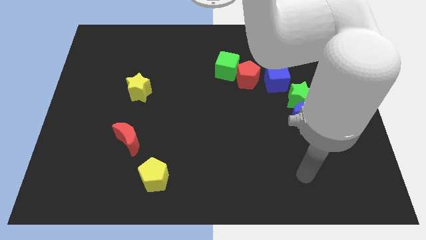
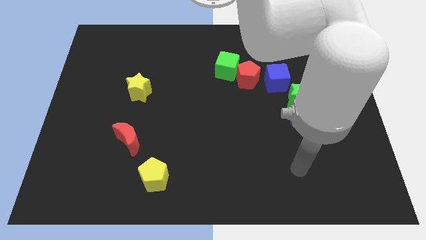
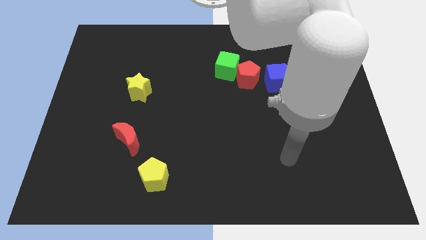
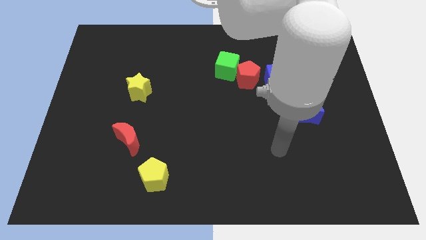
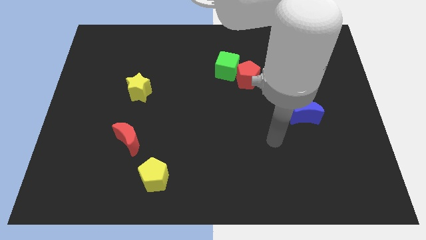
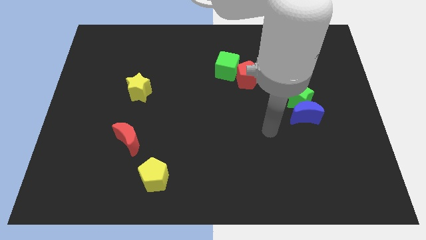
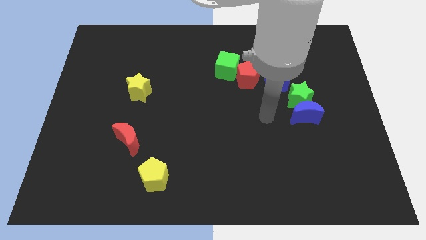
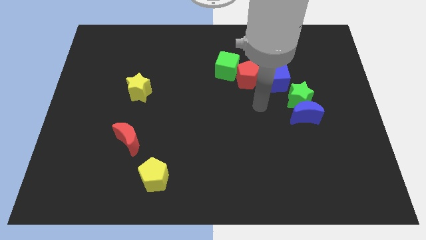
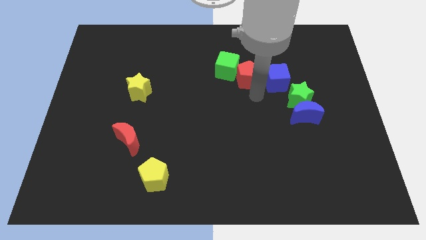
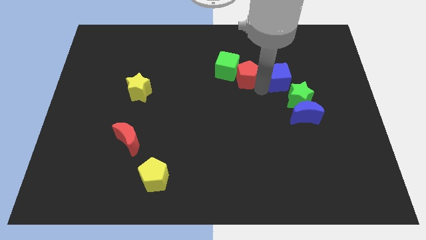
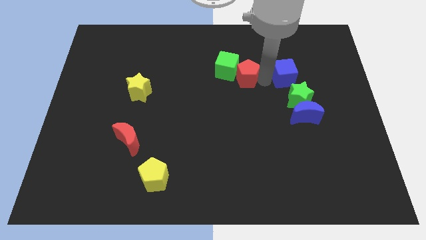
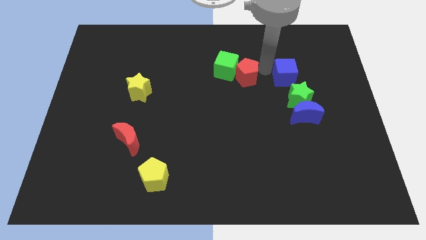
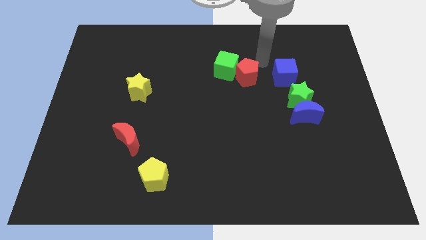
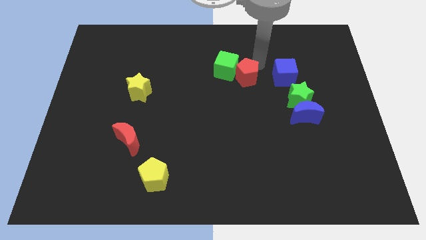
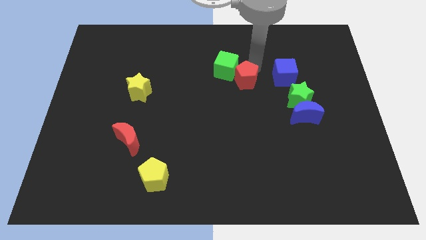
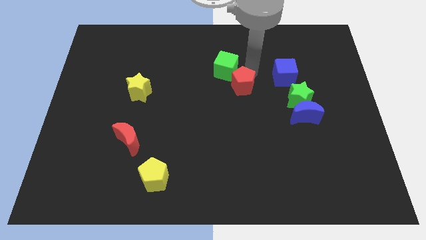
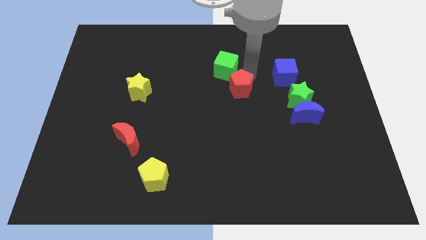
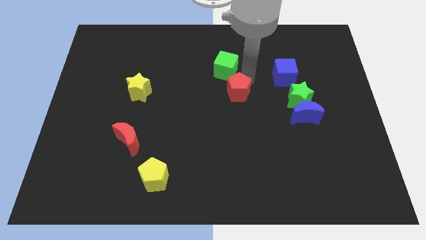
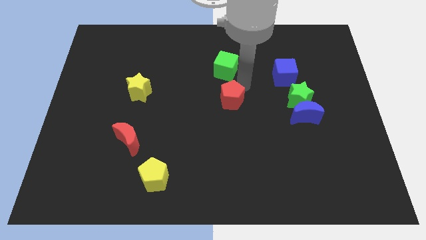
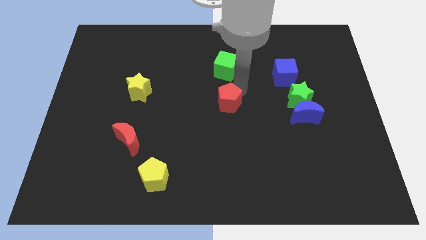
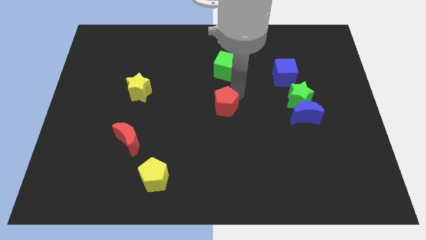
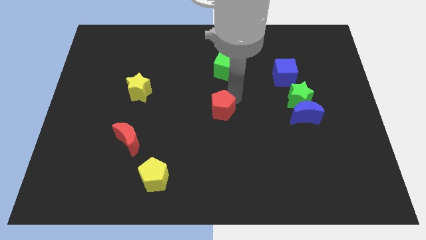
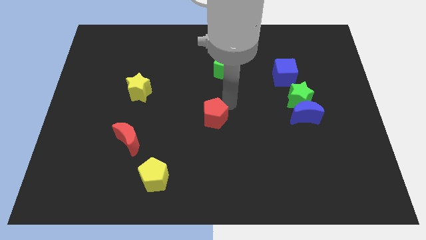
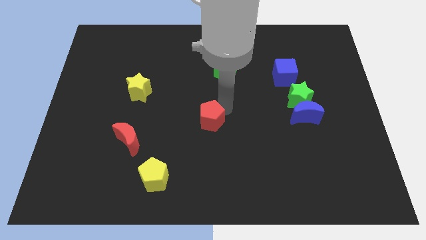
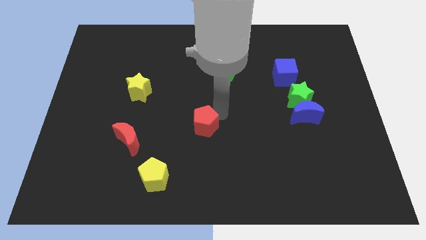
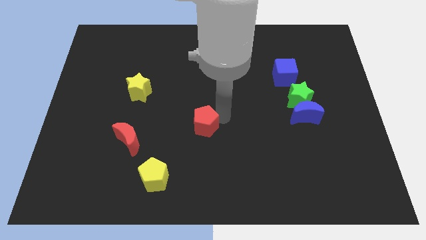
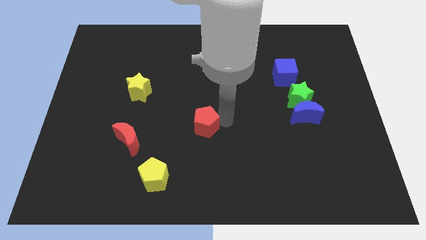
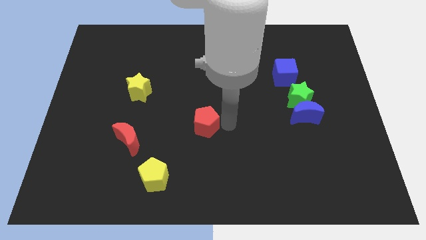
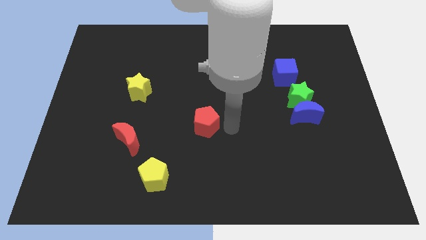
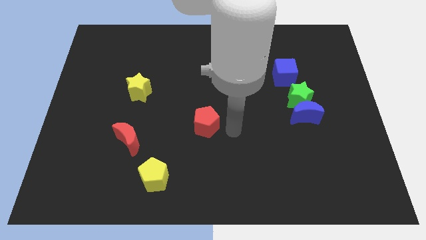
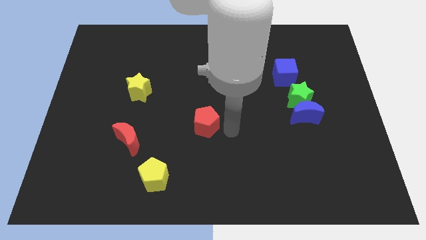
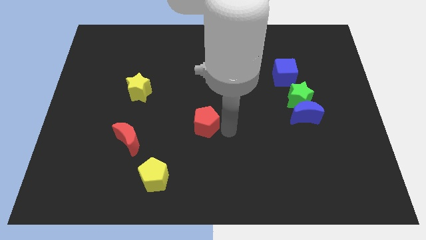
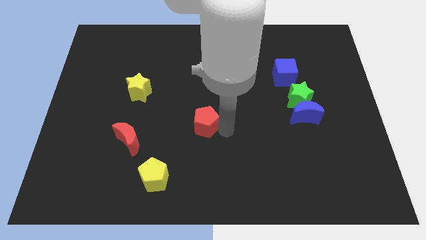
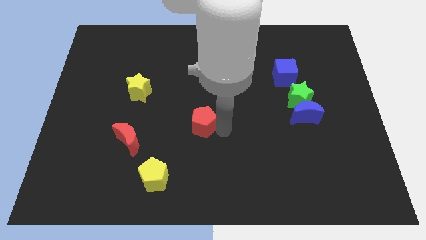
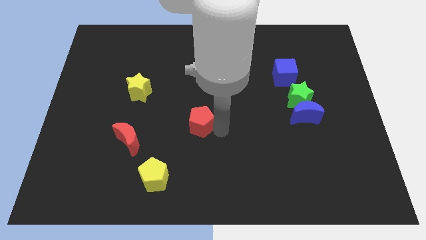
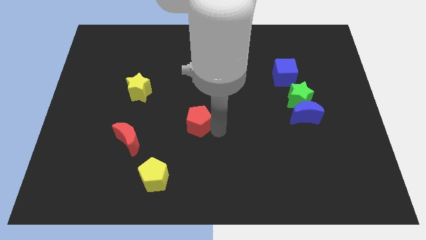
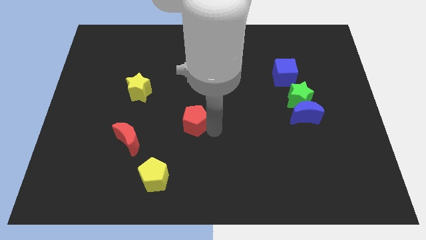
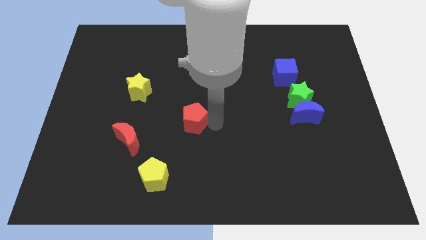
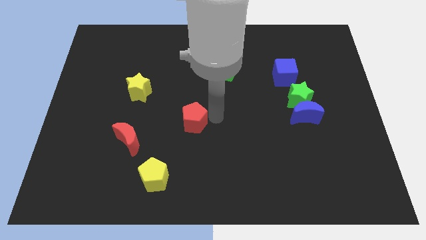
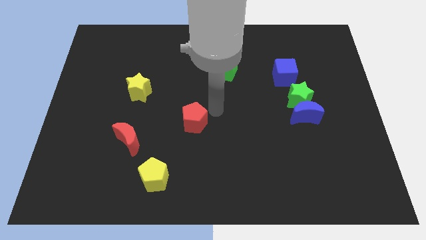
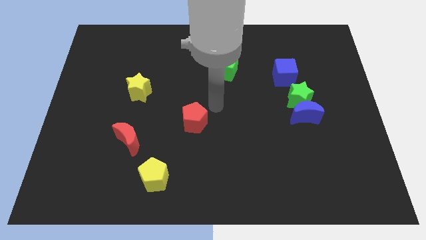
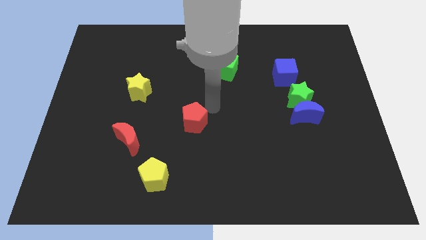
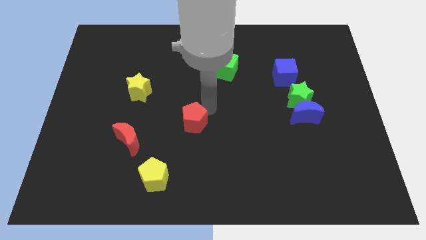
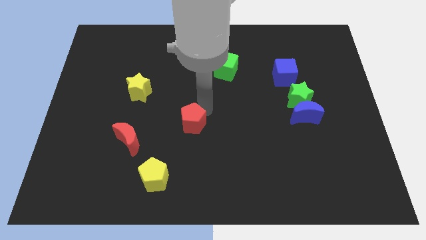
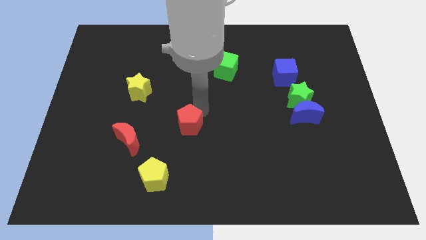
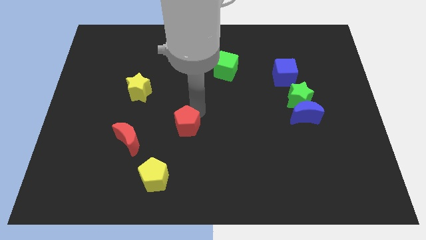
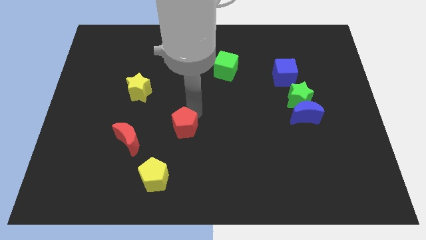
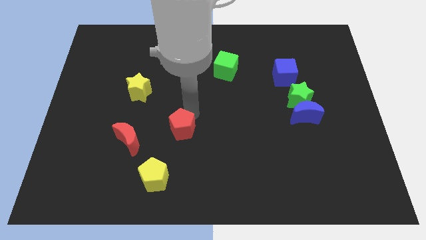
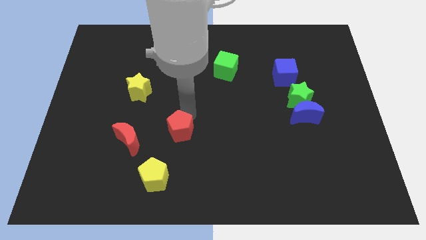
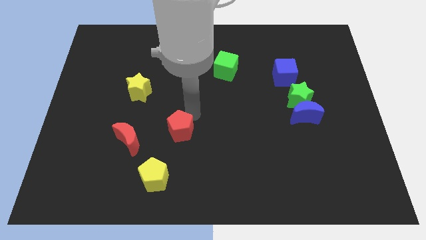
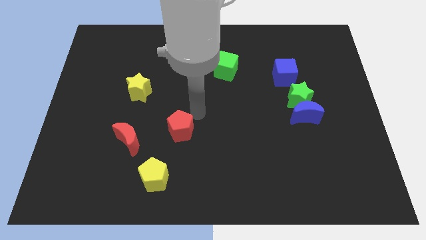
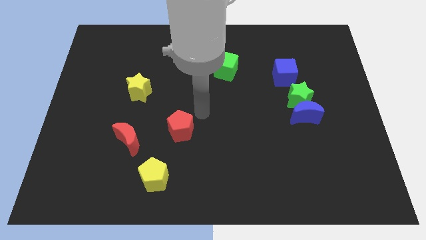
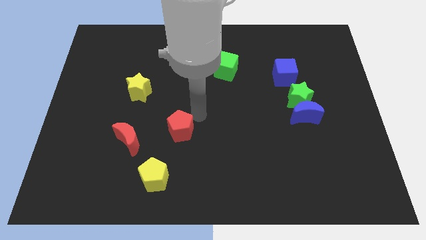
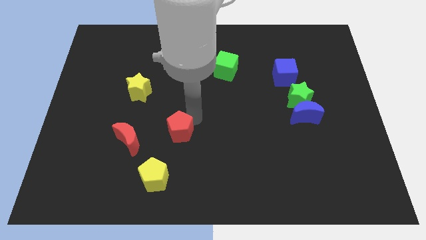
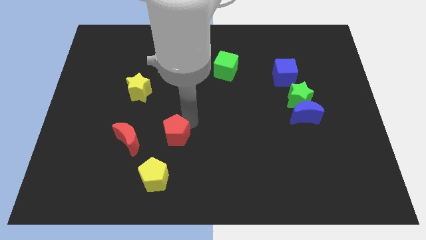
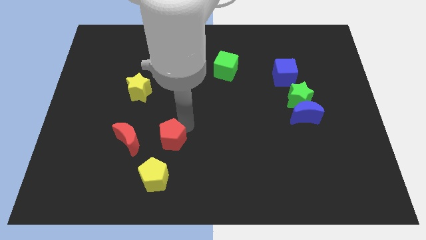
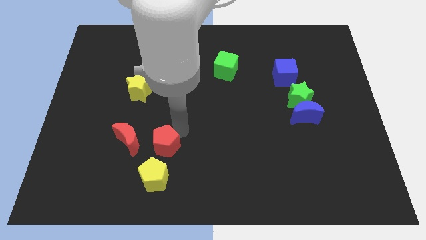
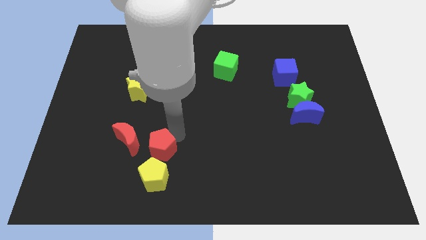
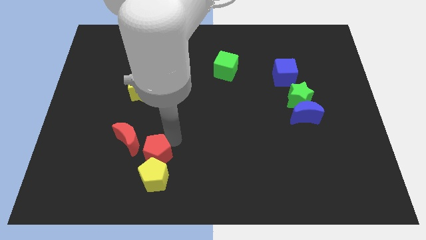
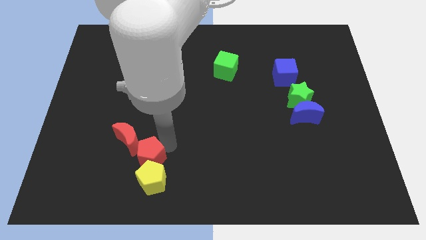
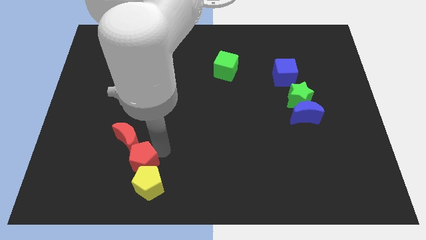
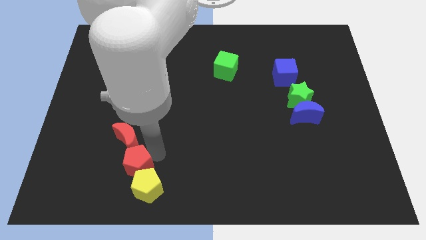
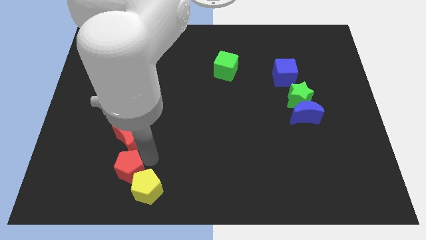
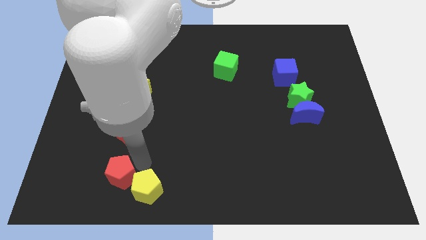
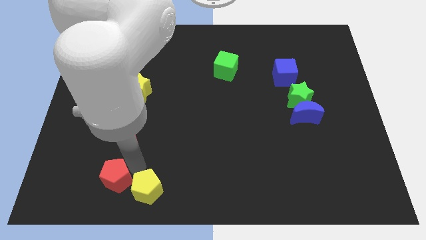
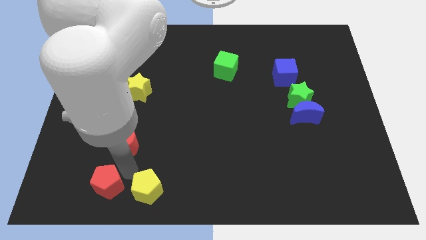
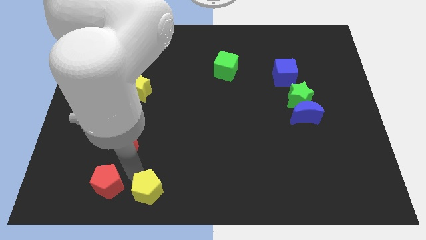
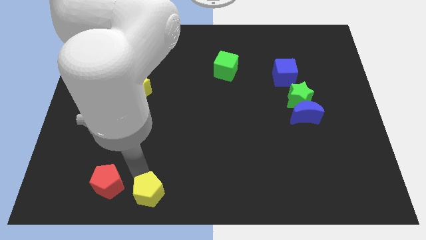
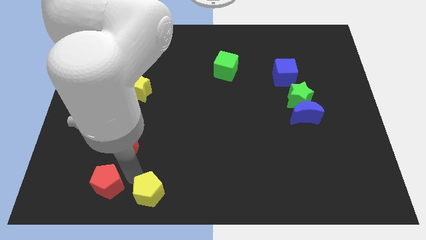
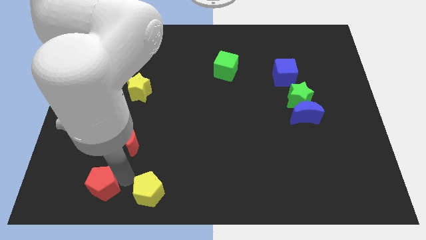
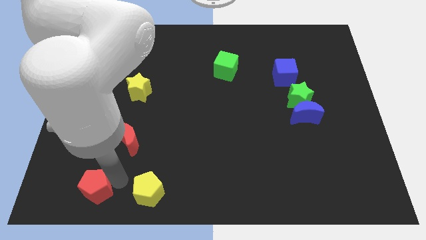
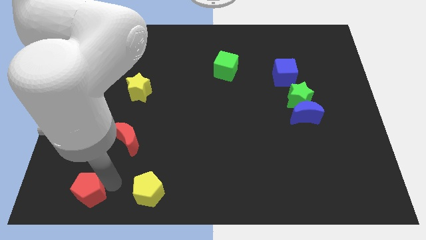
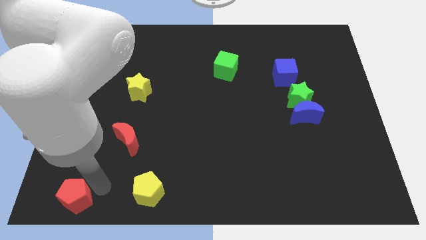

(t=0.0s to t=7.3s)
slide the red pentagon to the bottom left
